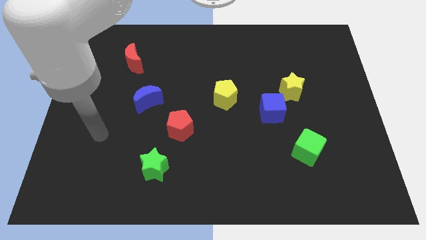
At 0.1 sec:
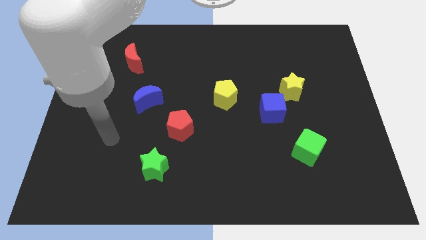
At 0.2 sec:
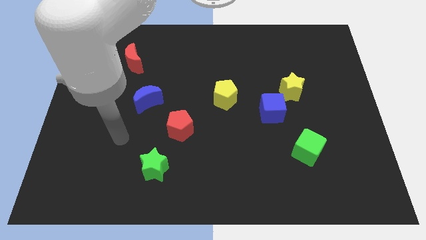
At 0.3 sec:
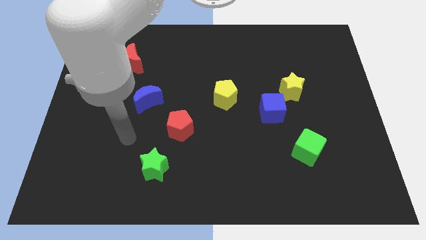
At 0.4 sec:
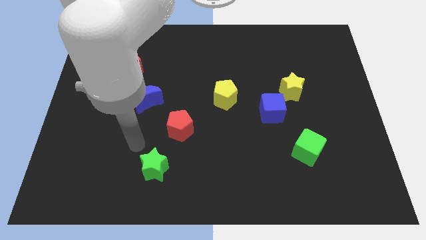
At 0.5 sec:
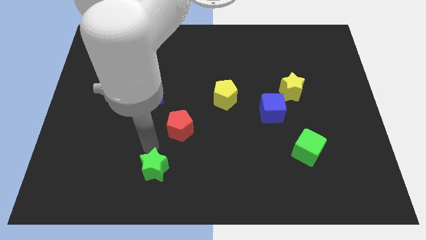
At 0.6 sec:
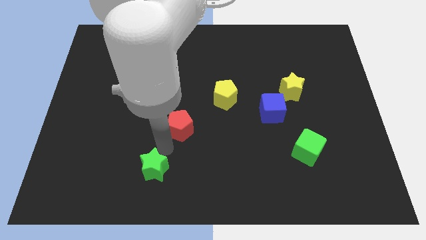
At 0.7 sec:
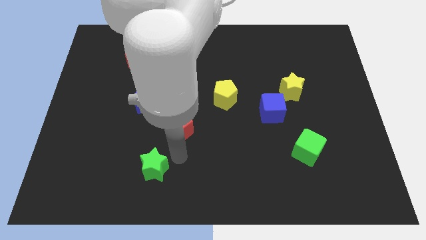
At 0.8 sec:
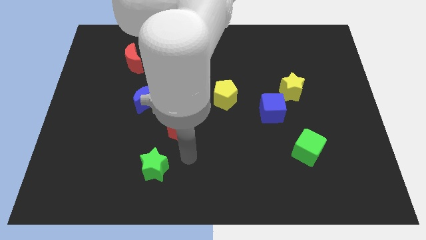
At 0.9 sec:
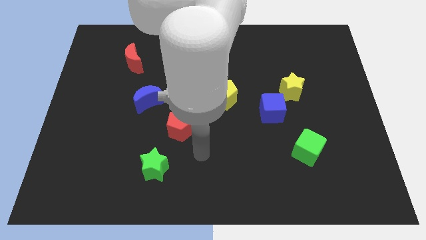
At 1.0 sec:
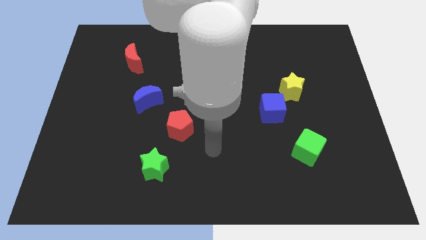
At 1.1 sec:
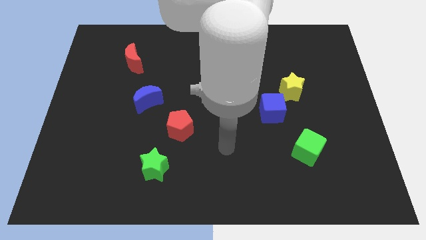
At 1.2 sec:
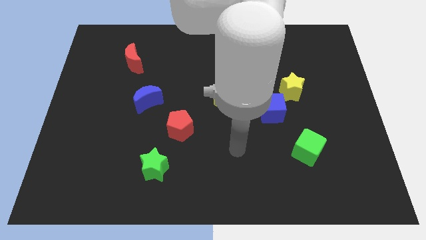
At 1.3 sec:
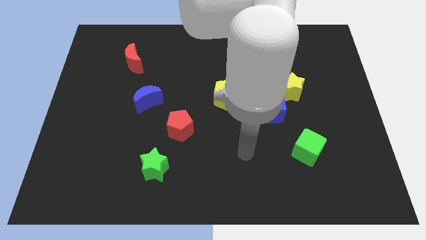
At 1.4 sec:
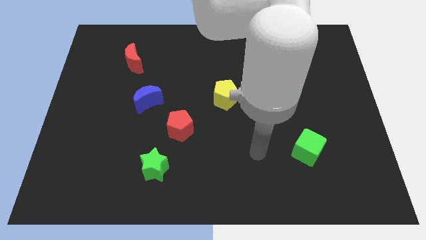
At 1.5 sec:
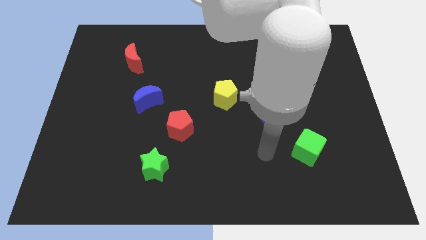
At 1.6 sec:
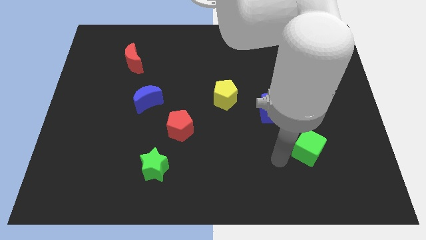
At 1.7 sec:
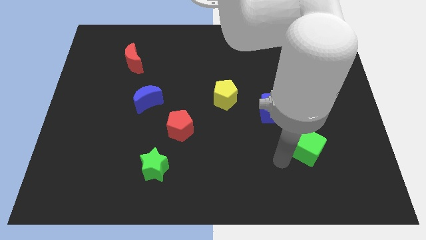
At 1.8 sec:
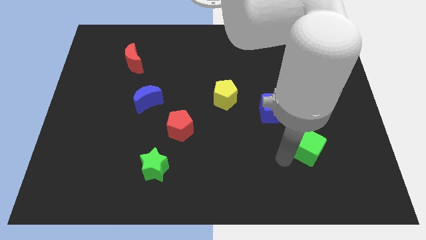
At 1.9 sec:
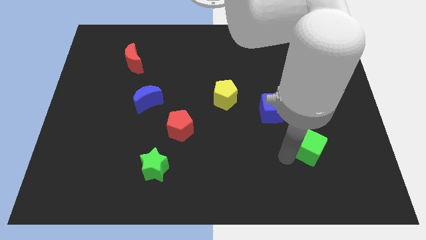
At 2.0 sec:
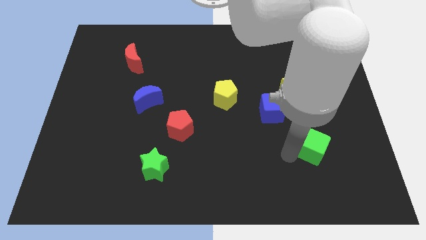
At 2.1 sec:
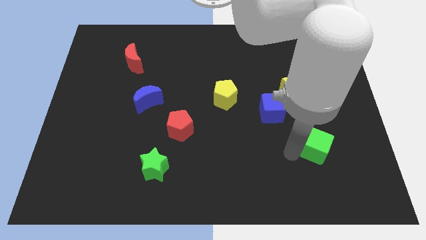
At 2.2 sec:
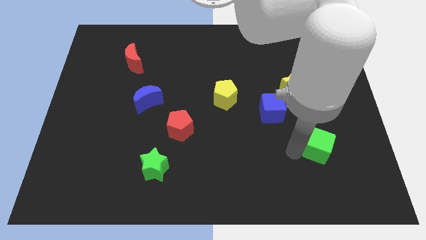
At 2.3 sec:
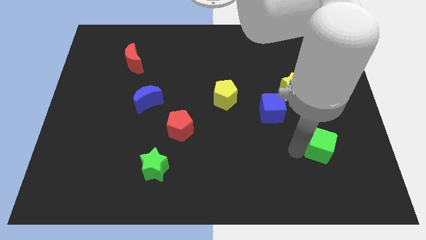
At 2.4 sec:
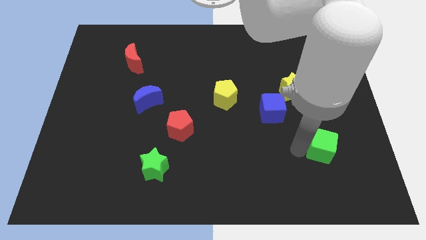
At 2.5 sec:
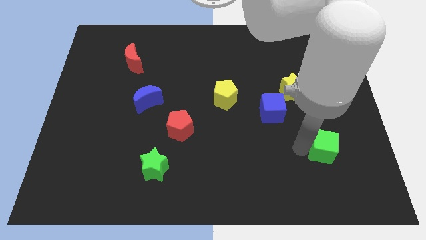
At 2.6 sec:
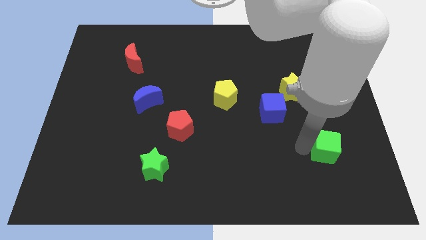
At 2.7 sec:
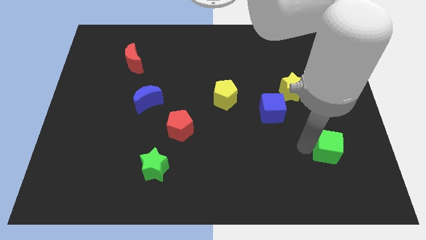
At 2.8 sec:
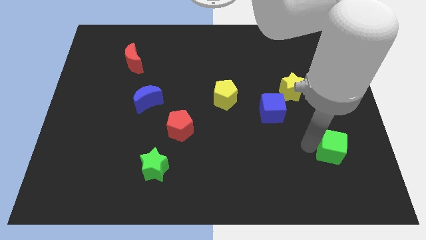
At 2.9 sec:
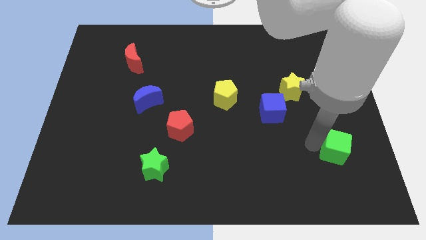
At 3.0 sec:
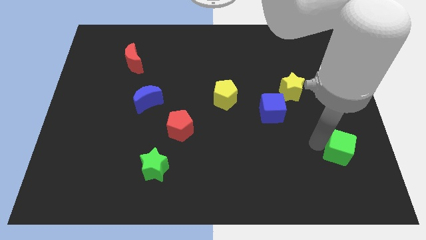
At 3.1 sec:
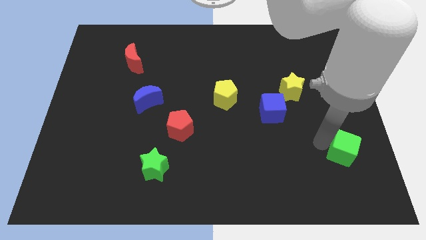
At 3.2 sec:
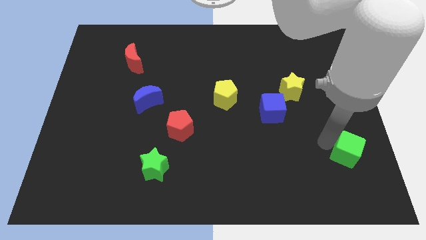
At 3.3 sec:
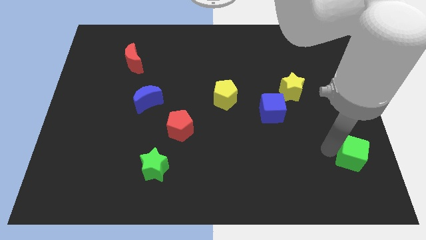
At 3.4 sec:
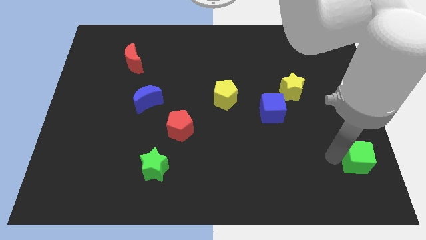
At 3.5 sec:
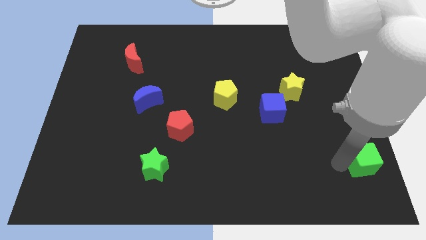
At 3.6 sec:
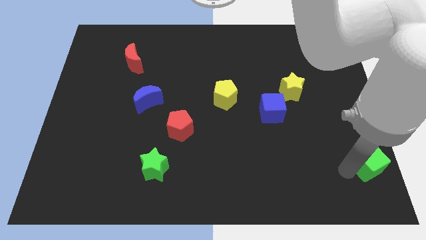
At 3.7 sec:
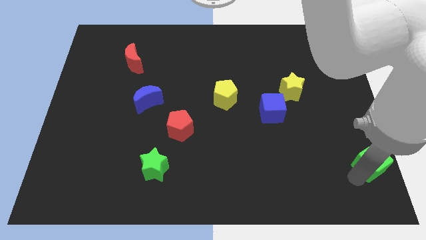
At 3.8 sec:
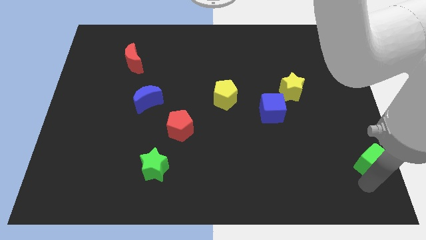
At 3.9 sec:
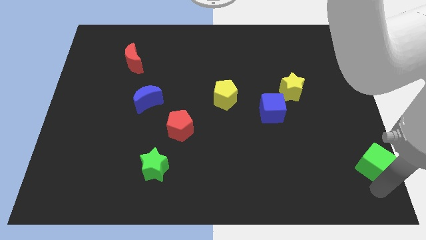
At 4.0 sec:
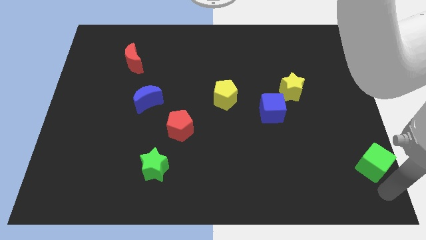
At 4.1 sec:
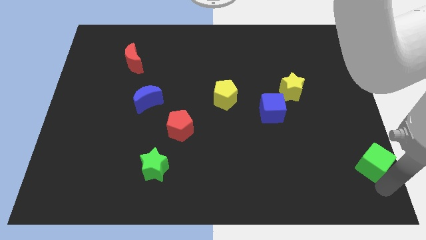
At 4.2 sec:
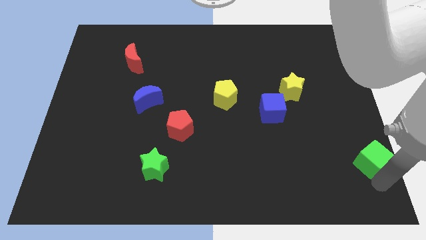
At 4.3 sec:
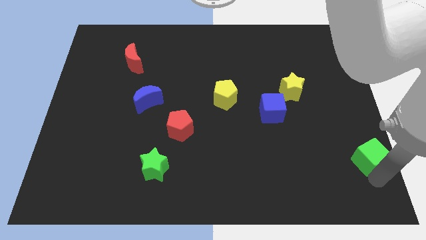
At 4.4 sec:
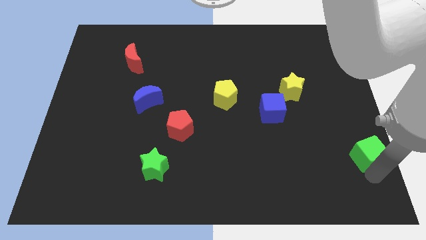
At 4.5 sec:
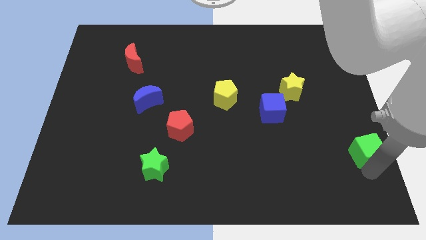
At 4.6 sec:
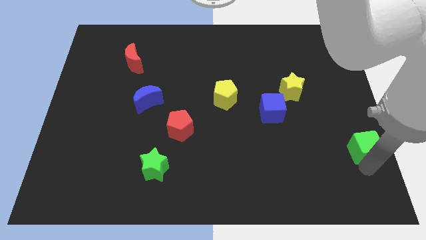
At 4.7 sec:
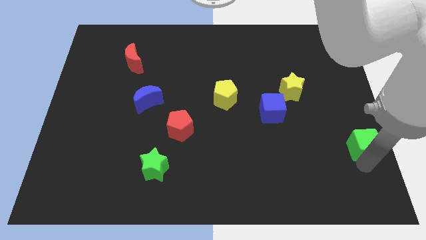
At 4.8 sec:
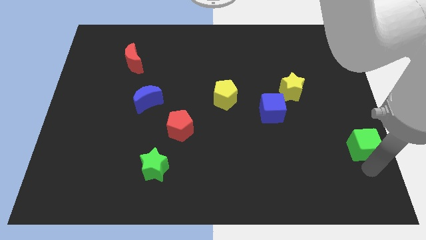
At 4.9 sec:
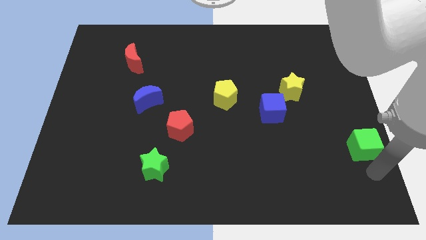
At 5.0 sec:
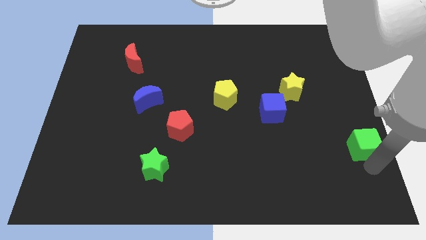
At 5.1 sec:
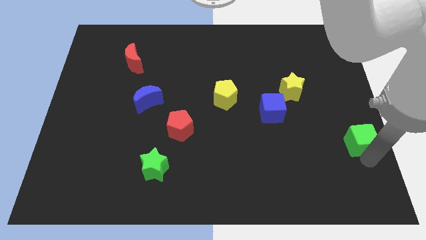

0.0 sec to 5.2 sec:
put the green cube to the right side

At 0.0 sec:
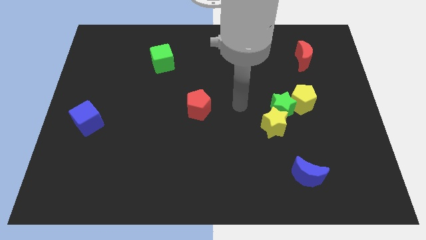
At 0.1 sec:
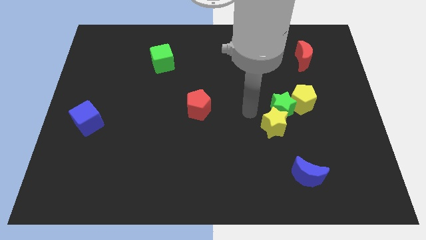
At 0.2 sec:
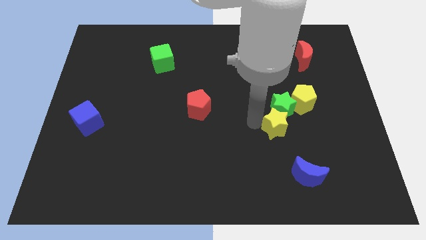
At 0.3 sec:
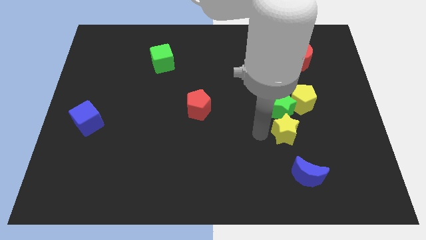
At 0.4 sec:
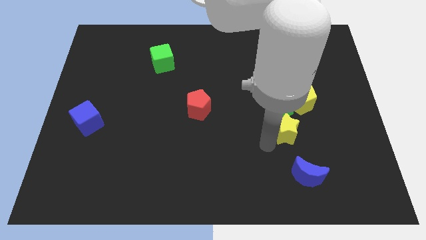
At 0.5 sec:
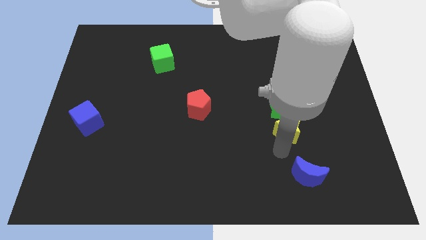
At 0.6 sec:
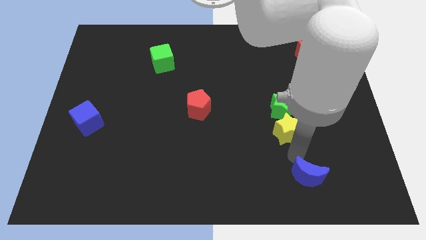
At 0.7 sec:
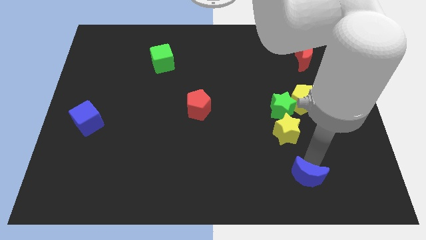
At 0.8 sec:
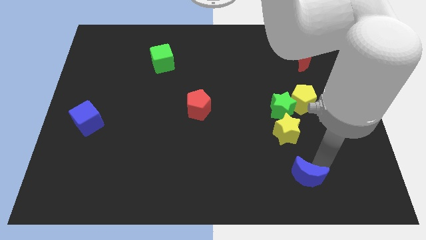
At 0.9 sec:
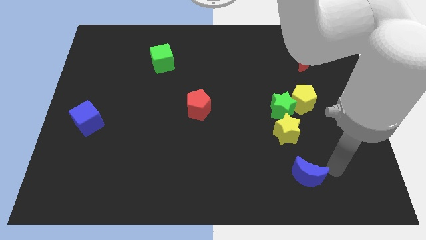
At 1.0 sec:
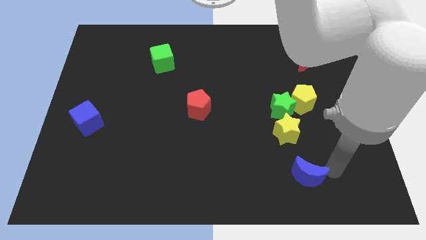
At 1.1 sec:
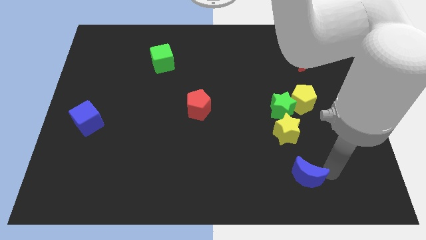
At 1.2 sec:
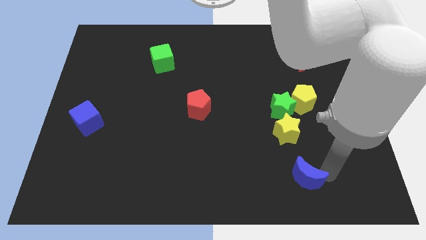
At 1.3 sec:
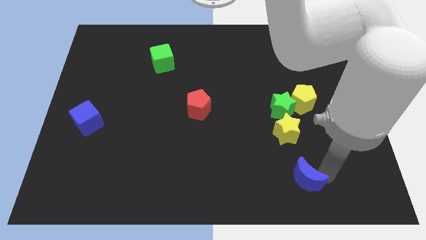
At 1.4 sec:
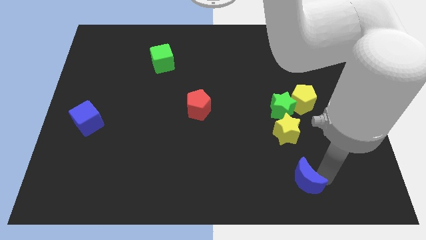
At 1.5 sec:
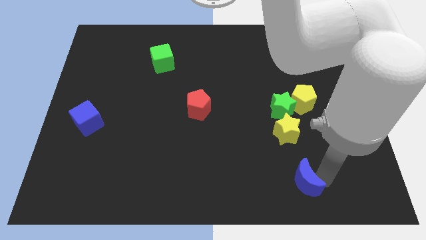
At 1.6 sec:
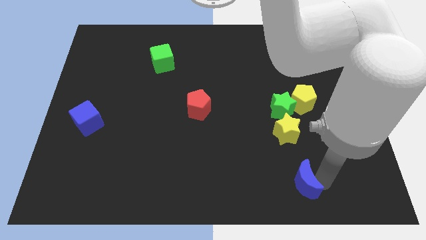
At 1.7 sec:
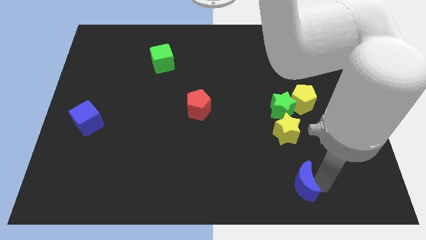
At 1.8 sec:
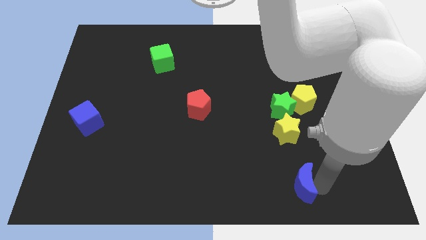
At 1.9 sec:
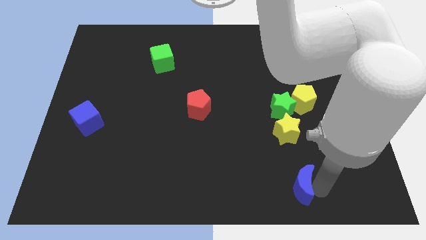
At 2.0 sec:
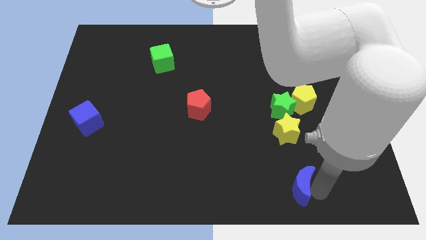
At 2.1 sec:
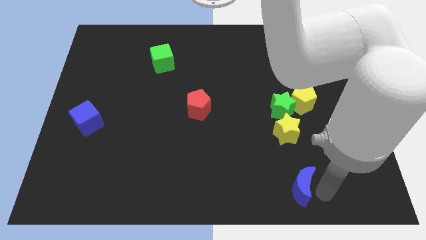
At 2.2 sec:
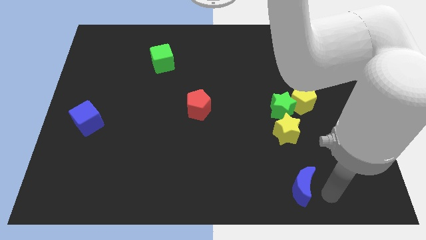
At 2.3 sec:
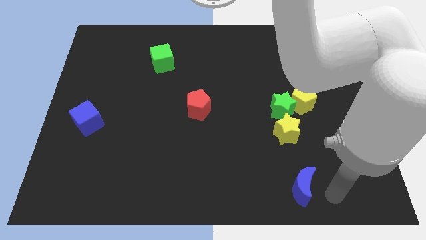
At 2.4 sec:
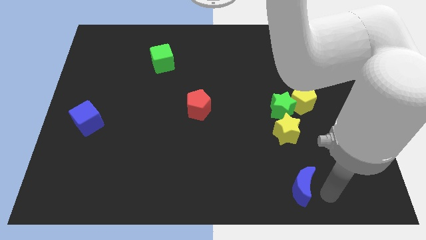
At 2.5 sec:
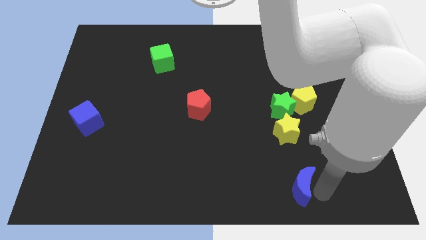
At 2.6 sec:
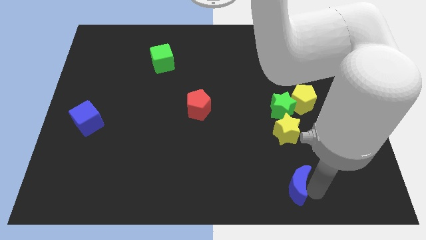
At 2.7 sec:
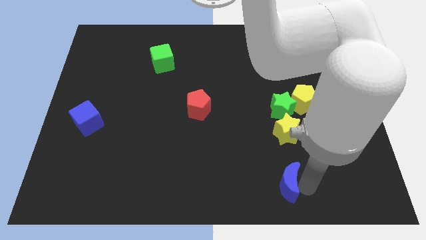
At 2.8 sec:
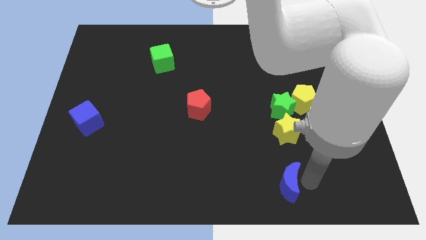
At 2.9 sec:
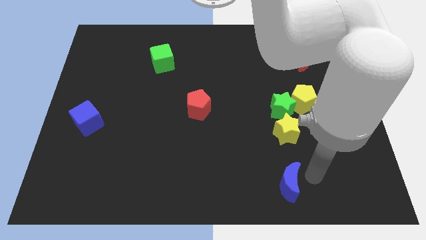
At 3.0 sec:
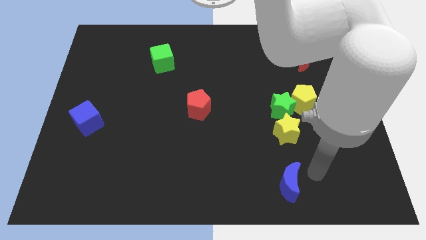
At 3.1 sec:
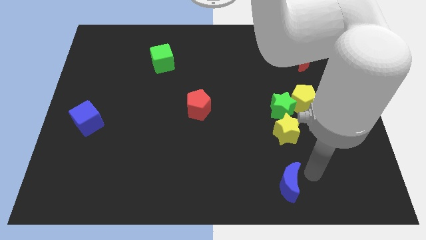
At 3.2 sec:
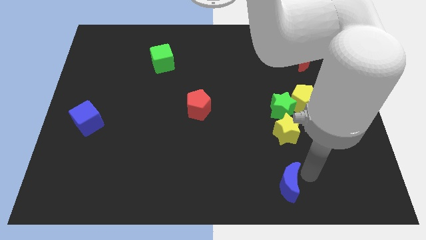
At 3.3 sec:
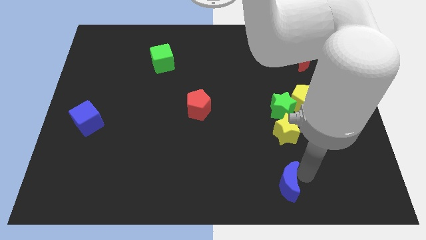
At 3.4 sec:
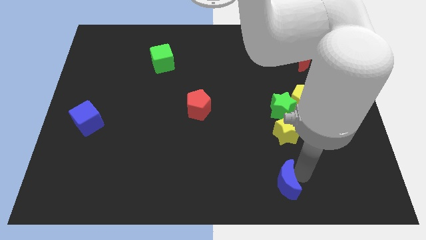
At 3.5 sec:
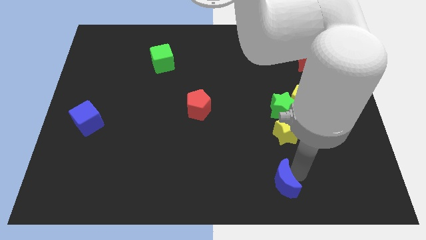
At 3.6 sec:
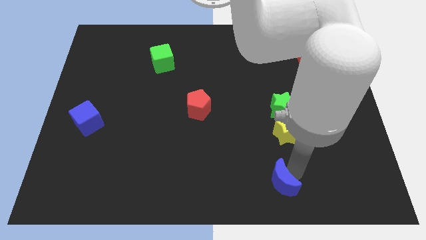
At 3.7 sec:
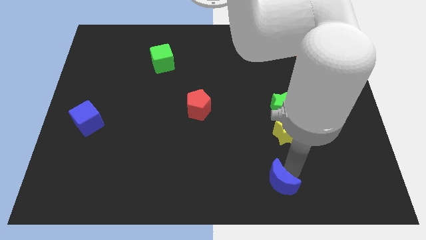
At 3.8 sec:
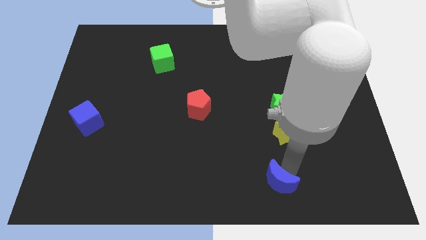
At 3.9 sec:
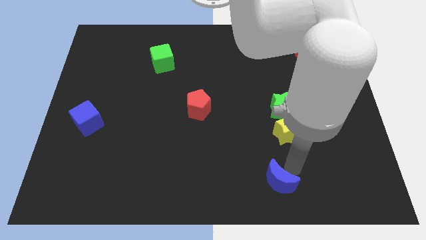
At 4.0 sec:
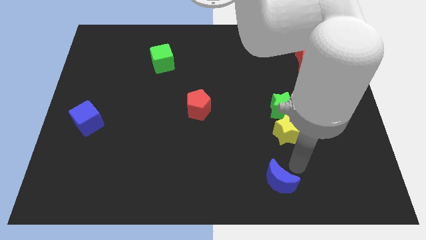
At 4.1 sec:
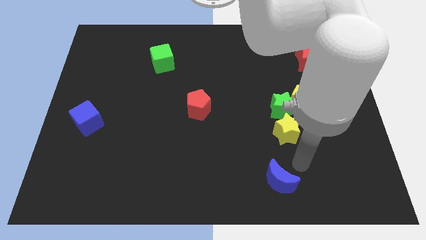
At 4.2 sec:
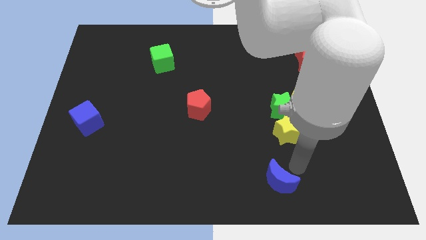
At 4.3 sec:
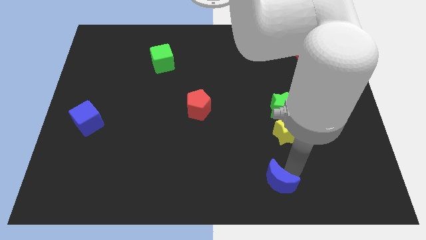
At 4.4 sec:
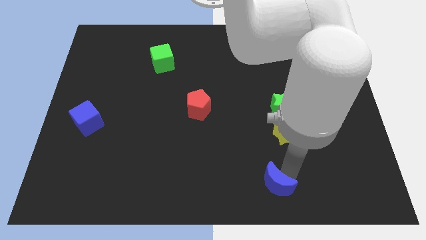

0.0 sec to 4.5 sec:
push the blue moon to the bottom
